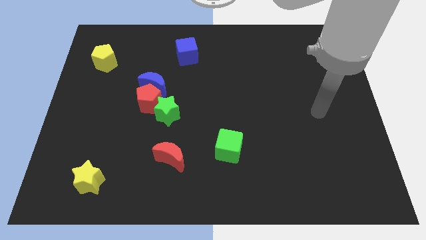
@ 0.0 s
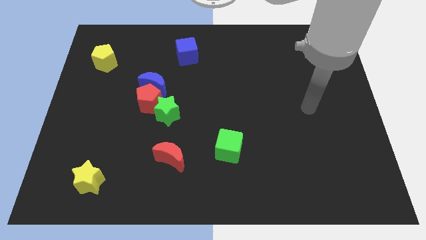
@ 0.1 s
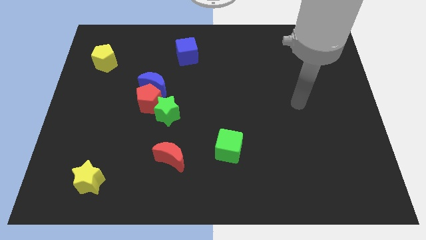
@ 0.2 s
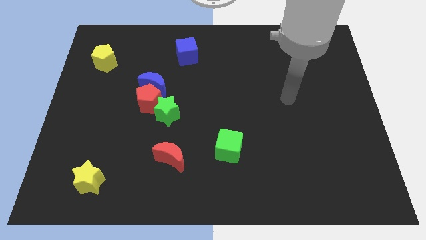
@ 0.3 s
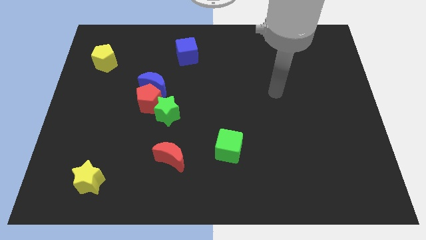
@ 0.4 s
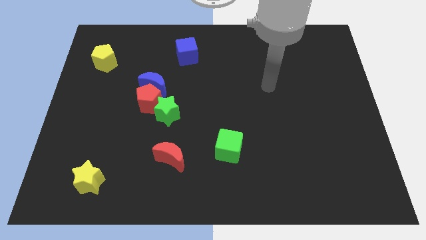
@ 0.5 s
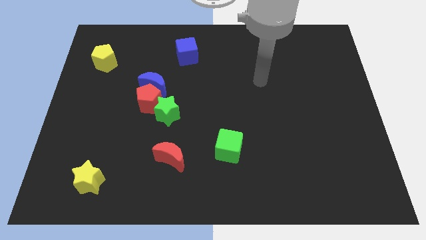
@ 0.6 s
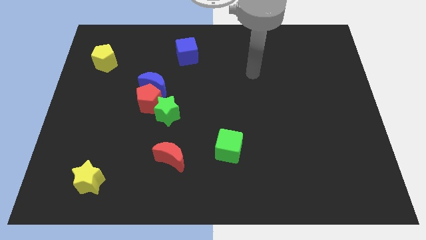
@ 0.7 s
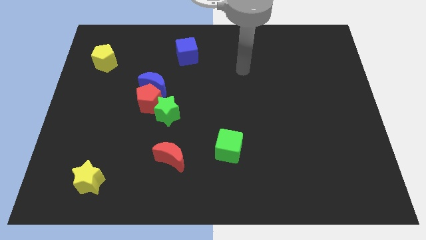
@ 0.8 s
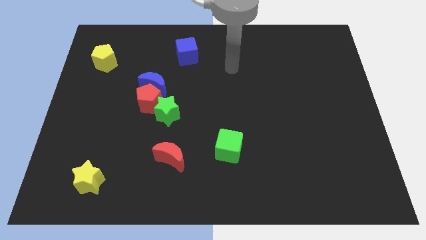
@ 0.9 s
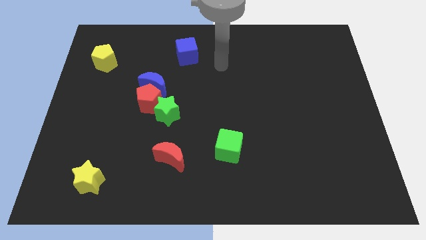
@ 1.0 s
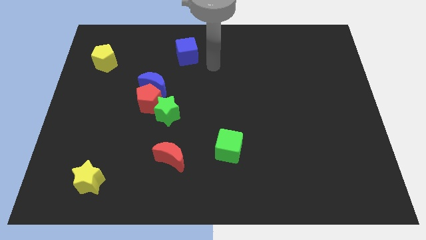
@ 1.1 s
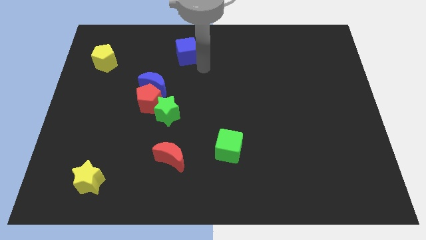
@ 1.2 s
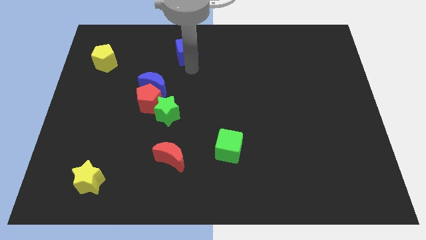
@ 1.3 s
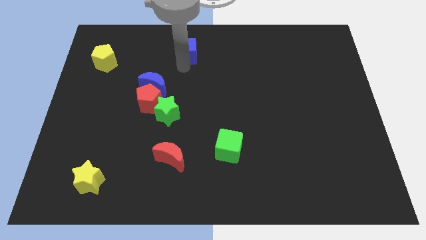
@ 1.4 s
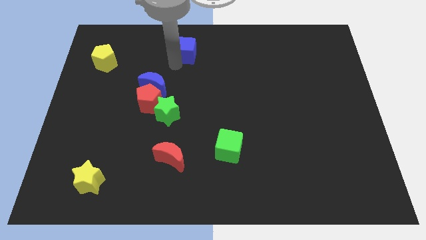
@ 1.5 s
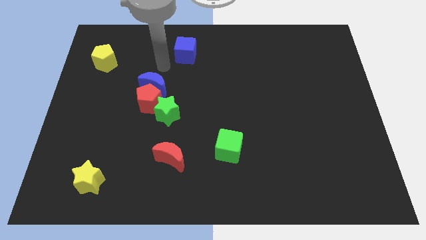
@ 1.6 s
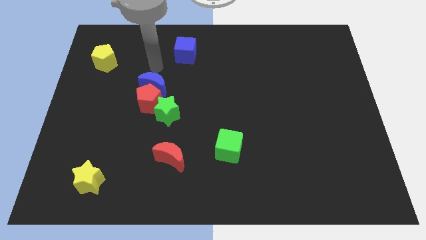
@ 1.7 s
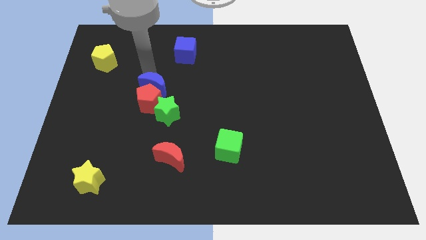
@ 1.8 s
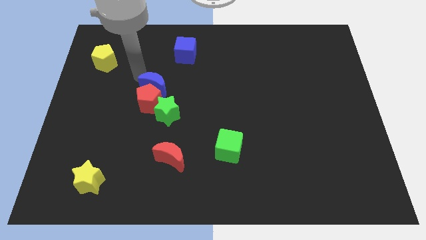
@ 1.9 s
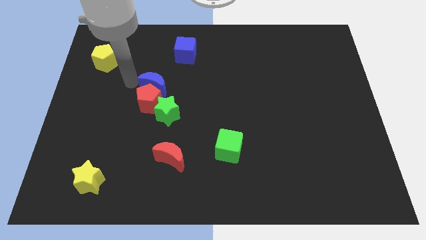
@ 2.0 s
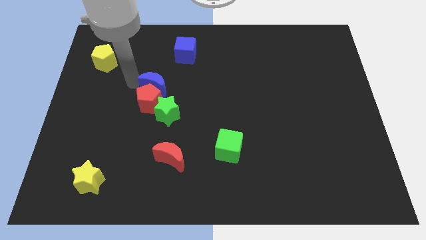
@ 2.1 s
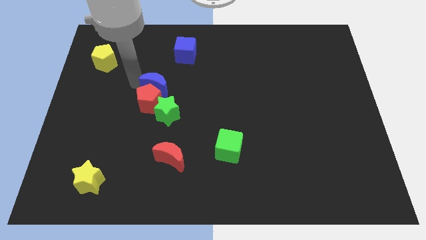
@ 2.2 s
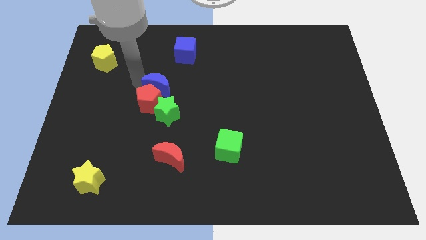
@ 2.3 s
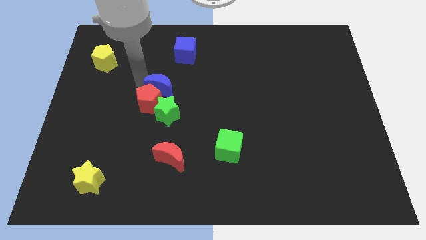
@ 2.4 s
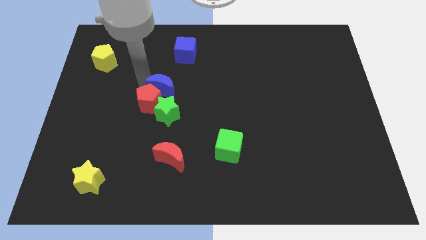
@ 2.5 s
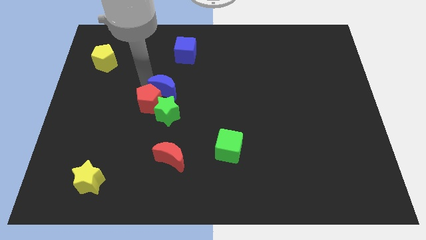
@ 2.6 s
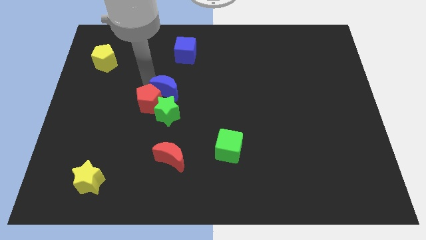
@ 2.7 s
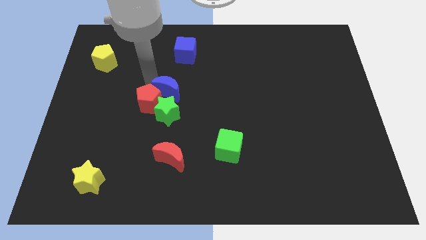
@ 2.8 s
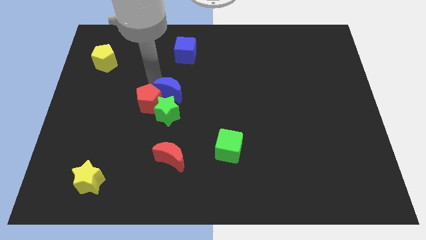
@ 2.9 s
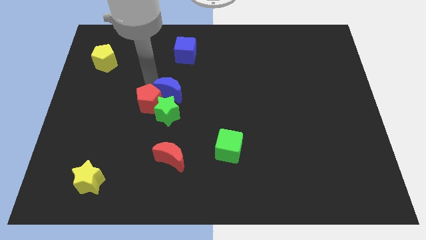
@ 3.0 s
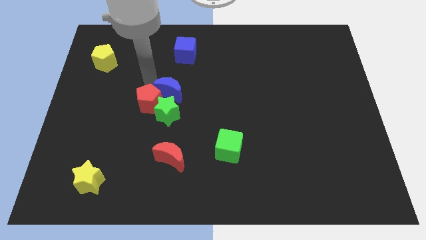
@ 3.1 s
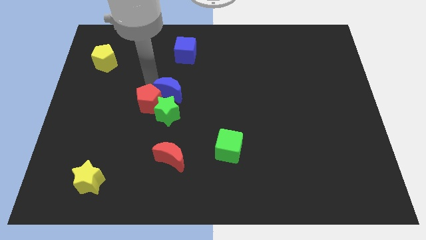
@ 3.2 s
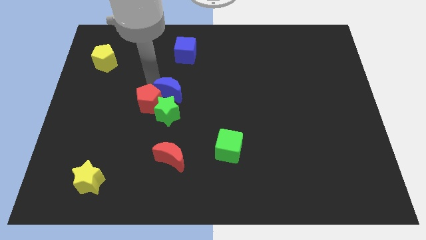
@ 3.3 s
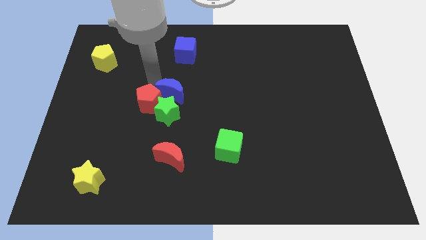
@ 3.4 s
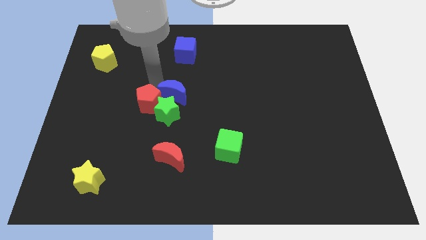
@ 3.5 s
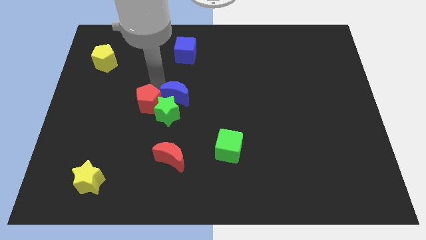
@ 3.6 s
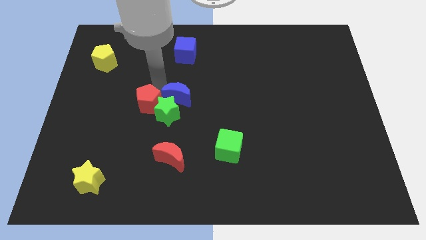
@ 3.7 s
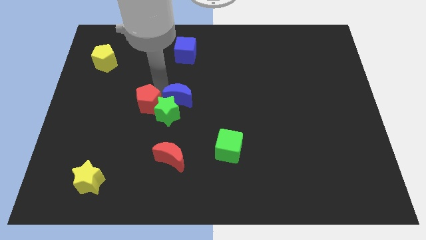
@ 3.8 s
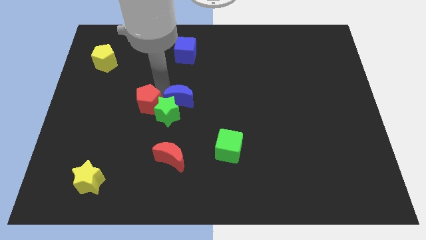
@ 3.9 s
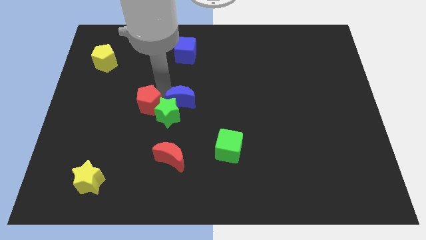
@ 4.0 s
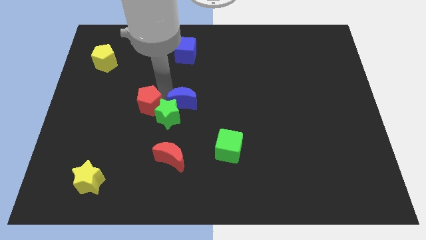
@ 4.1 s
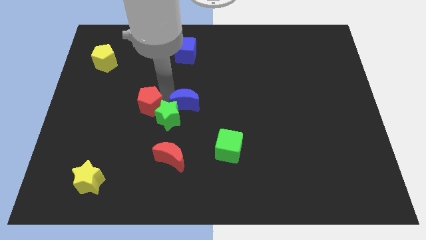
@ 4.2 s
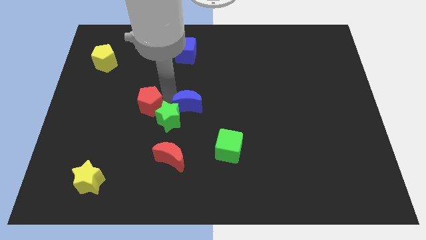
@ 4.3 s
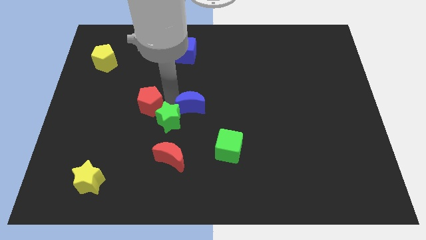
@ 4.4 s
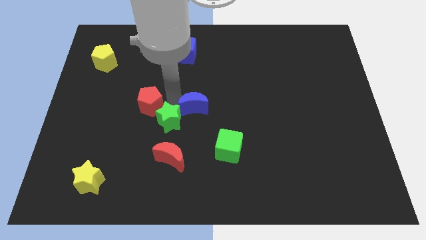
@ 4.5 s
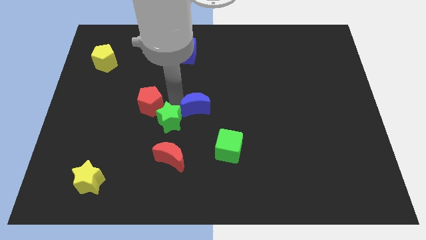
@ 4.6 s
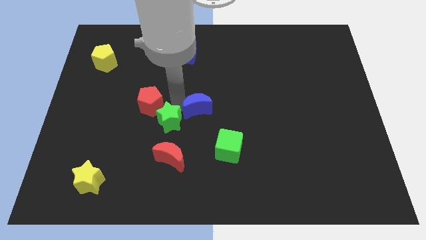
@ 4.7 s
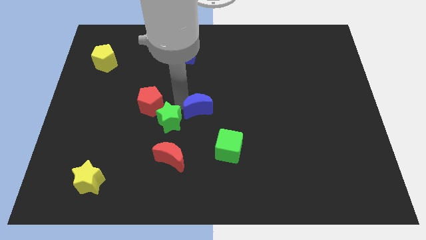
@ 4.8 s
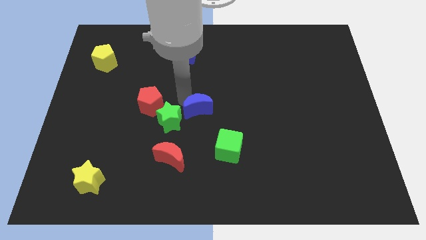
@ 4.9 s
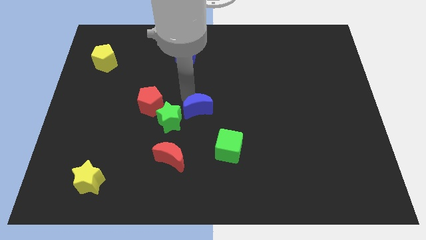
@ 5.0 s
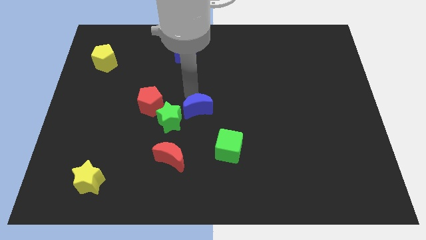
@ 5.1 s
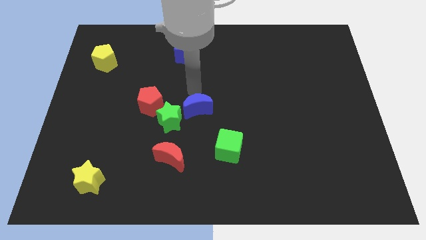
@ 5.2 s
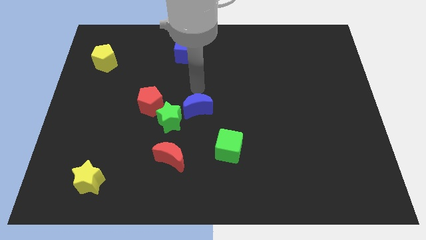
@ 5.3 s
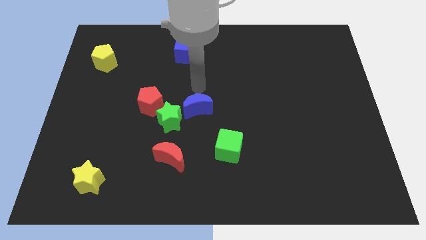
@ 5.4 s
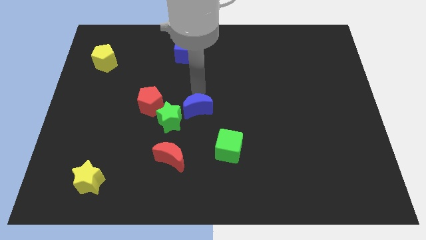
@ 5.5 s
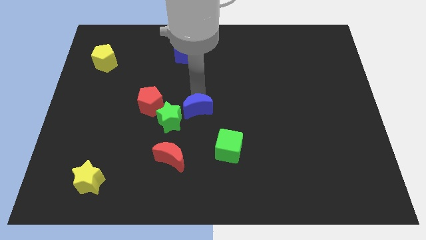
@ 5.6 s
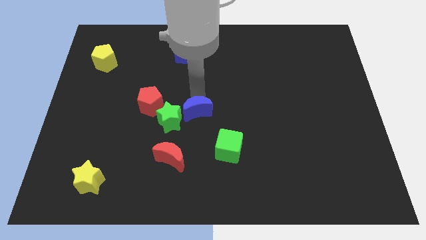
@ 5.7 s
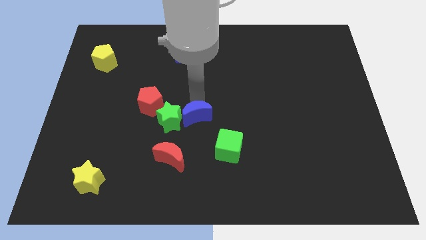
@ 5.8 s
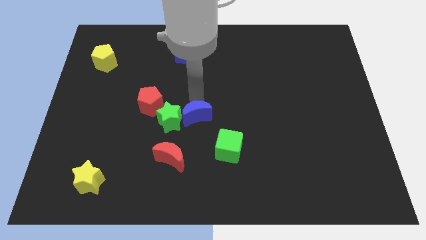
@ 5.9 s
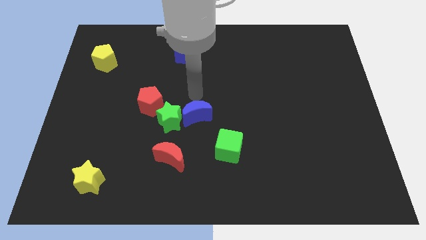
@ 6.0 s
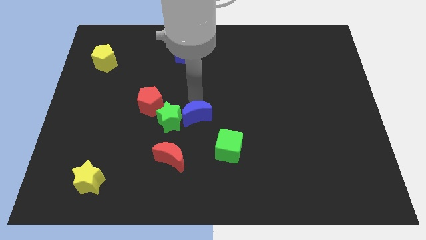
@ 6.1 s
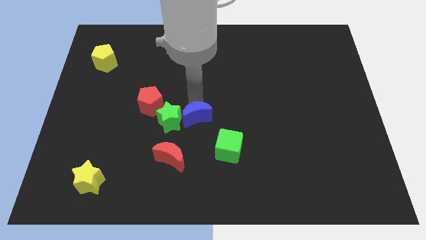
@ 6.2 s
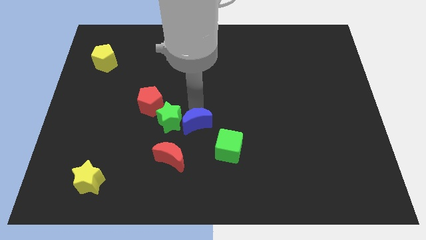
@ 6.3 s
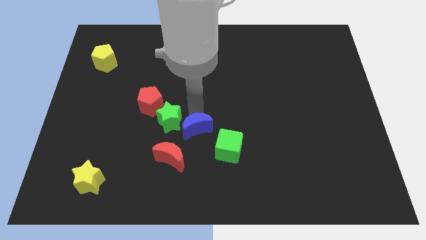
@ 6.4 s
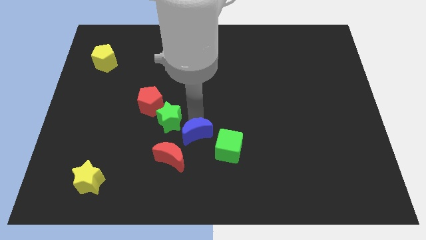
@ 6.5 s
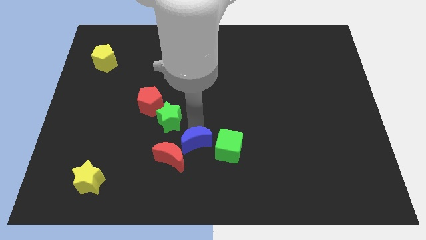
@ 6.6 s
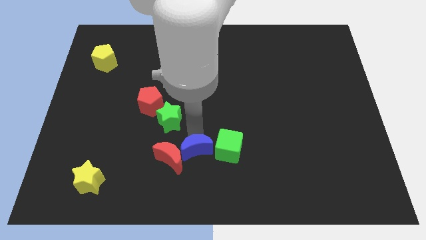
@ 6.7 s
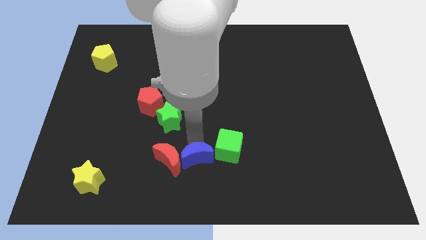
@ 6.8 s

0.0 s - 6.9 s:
put the blue moon to the bottom side
